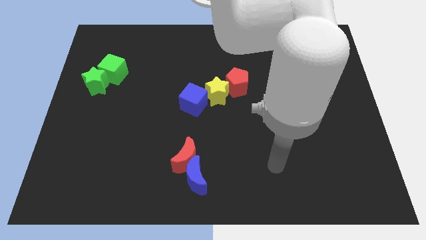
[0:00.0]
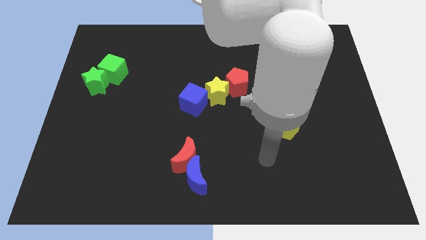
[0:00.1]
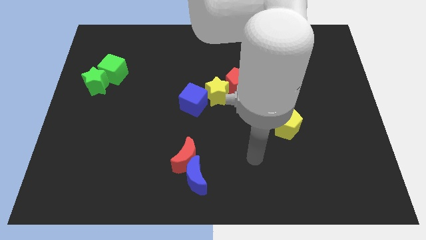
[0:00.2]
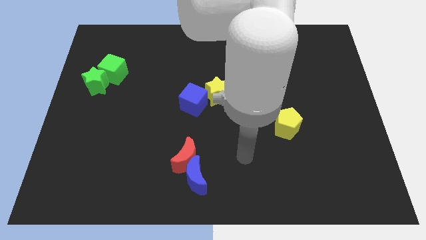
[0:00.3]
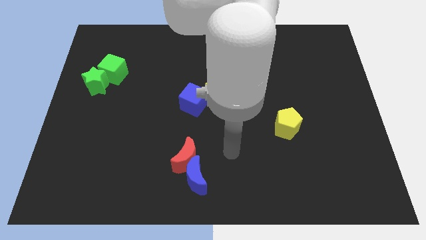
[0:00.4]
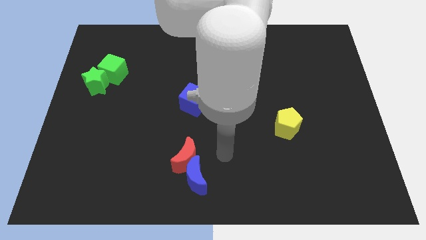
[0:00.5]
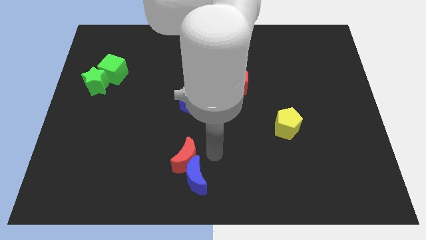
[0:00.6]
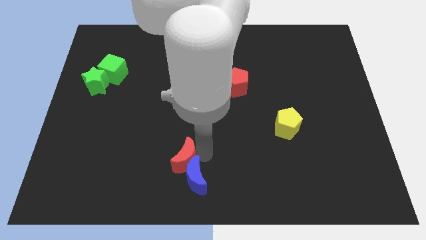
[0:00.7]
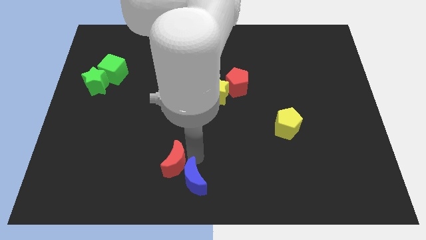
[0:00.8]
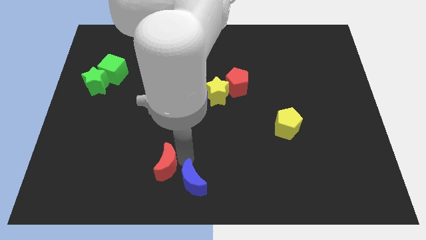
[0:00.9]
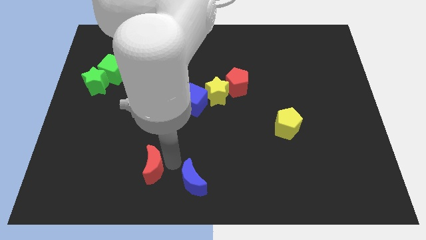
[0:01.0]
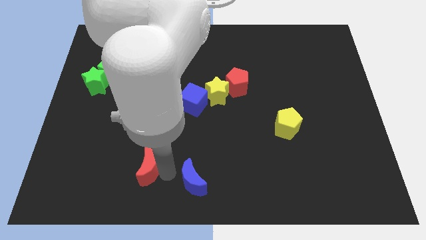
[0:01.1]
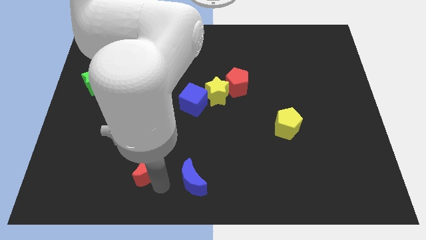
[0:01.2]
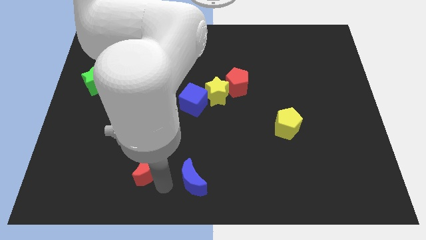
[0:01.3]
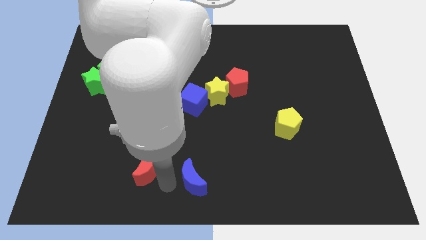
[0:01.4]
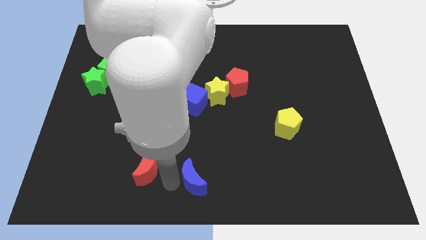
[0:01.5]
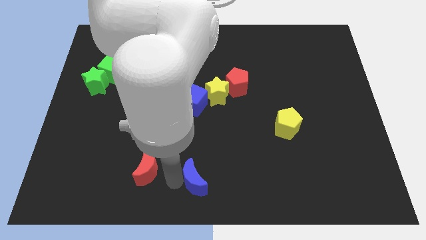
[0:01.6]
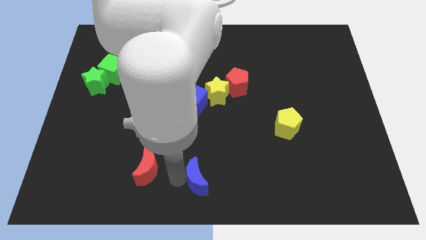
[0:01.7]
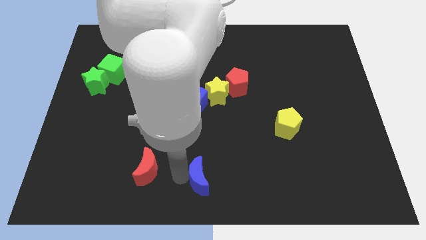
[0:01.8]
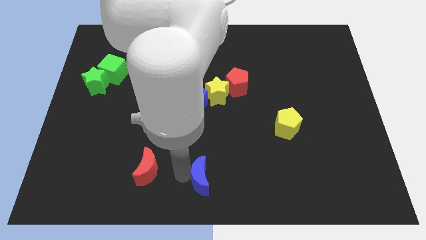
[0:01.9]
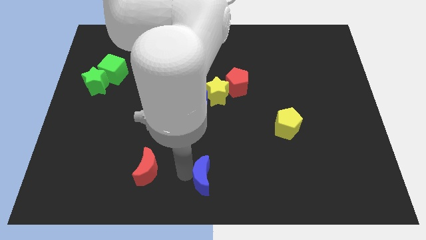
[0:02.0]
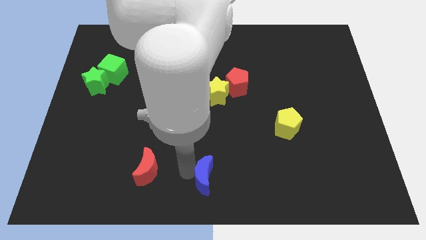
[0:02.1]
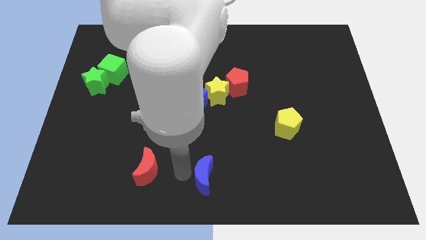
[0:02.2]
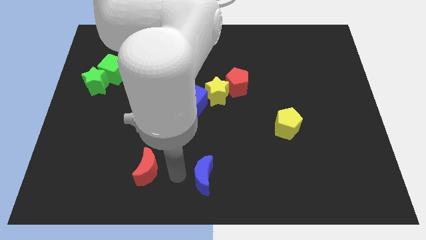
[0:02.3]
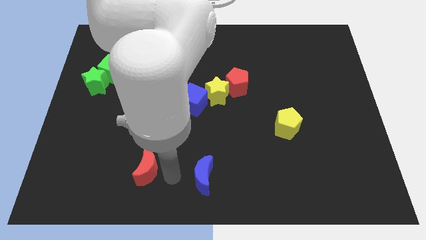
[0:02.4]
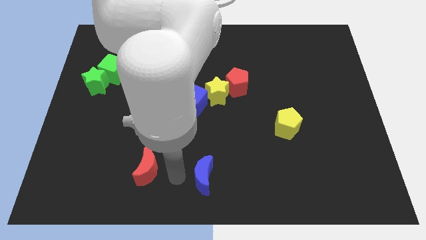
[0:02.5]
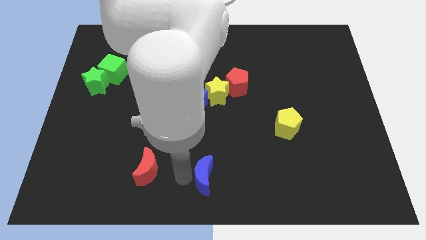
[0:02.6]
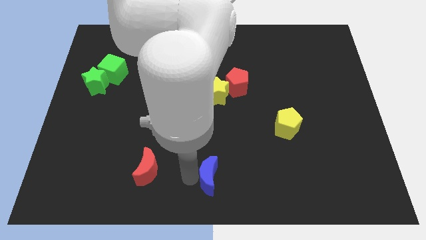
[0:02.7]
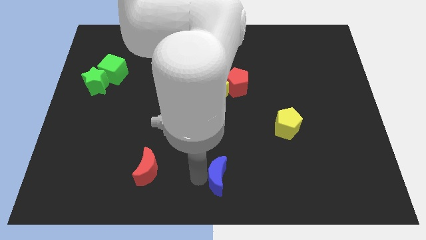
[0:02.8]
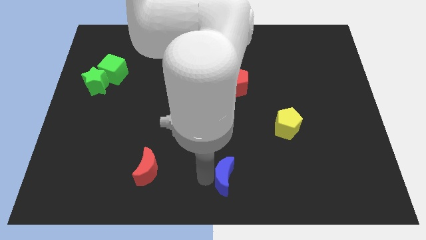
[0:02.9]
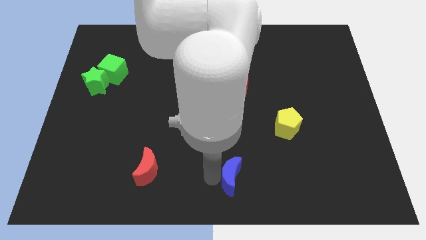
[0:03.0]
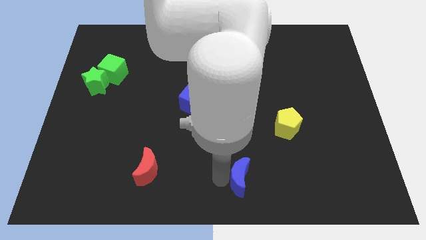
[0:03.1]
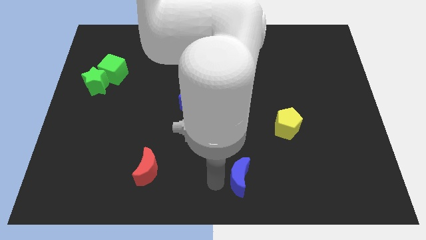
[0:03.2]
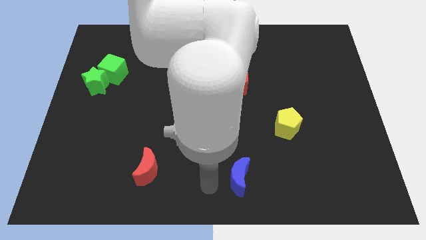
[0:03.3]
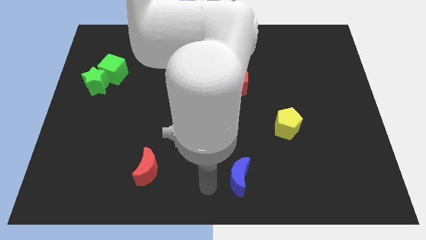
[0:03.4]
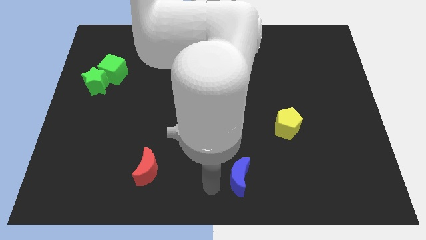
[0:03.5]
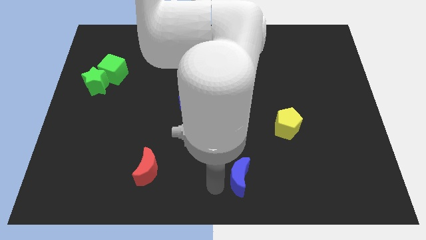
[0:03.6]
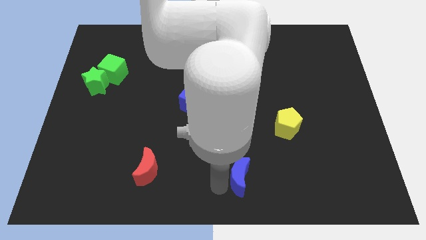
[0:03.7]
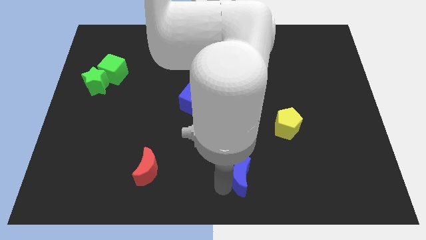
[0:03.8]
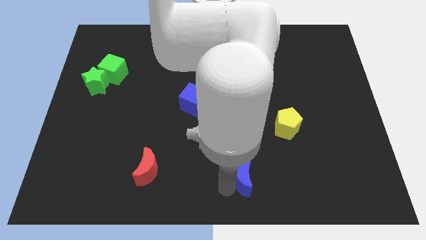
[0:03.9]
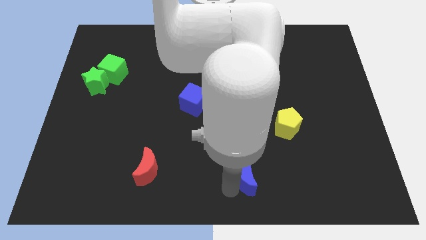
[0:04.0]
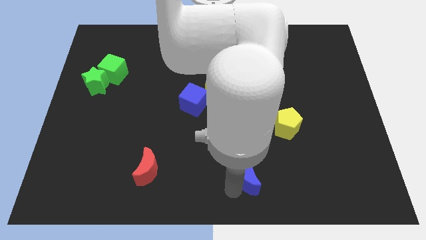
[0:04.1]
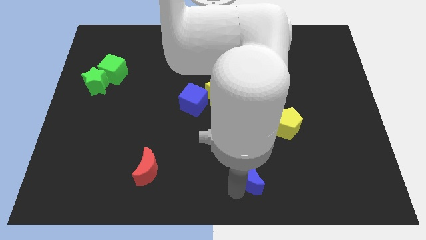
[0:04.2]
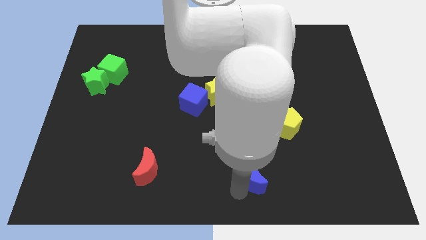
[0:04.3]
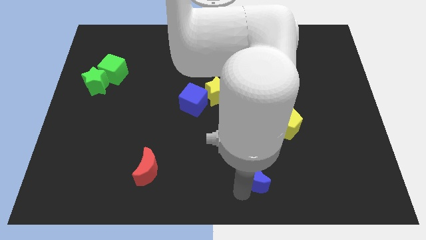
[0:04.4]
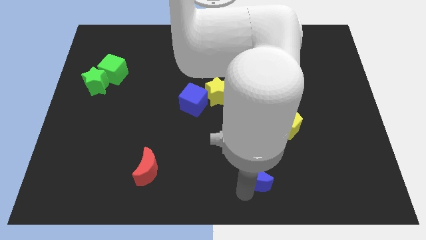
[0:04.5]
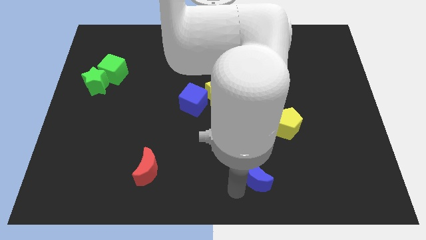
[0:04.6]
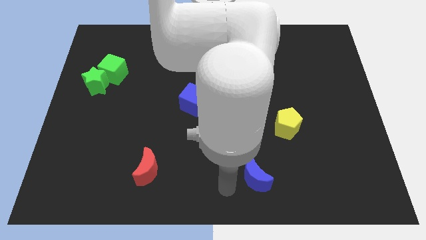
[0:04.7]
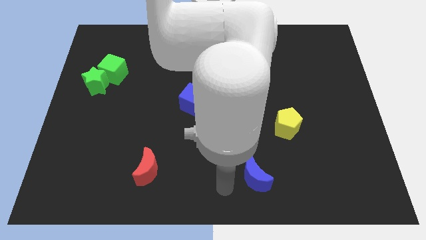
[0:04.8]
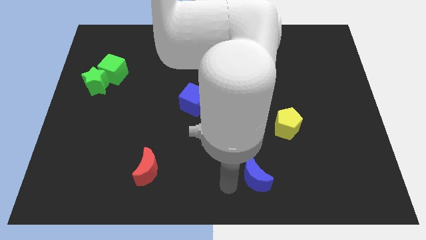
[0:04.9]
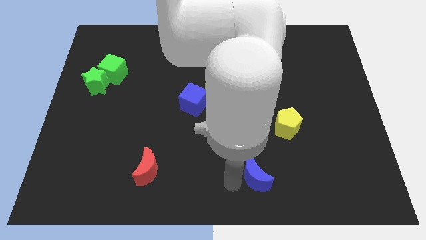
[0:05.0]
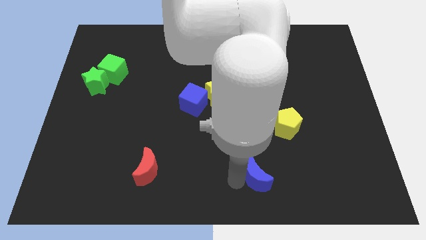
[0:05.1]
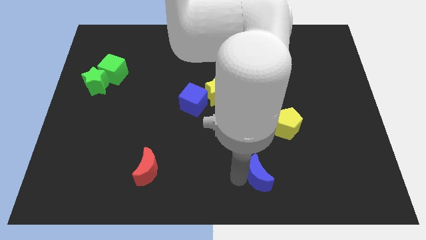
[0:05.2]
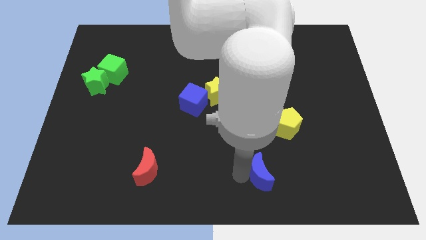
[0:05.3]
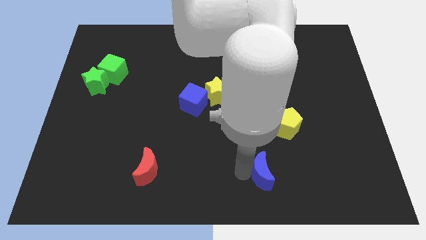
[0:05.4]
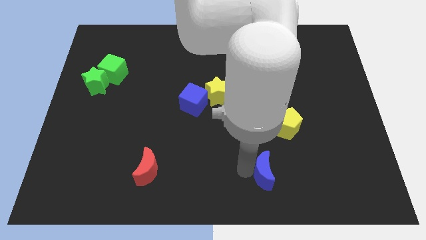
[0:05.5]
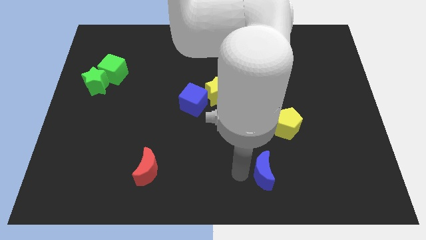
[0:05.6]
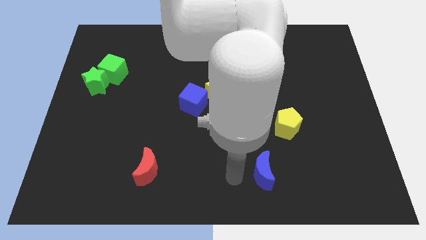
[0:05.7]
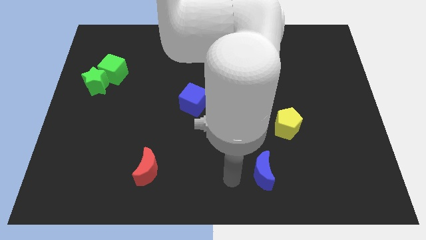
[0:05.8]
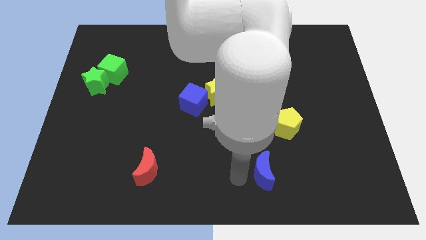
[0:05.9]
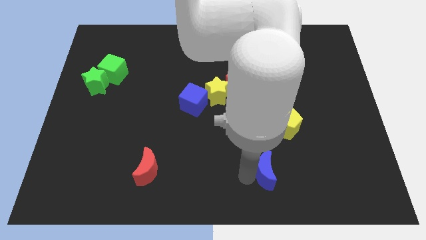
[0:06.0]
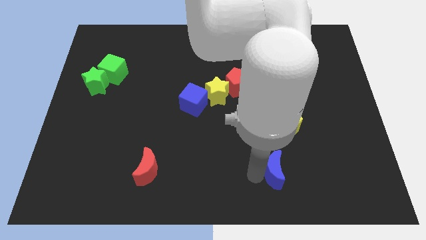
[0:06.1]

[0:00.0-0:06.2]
push the blue moon to the bottom side of the yellow pentagon

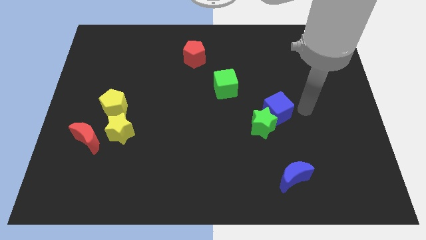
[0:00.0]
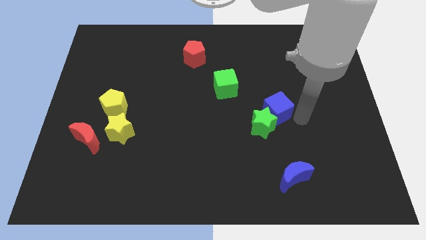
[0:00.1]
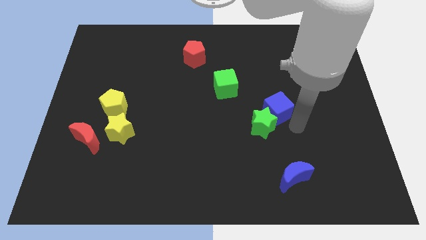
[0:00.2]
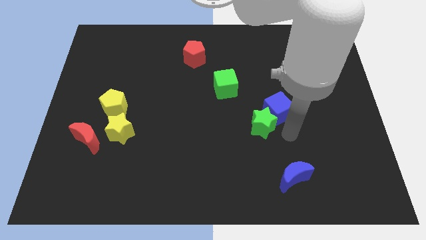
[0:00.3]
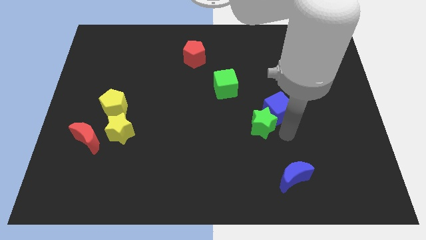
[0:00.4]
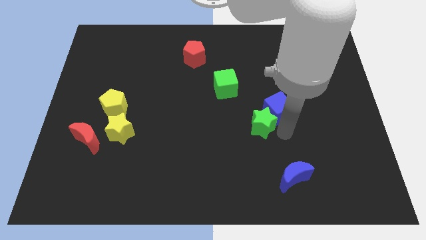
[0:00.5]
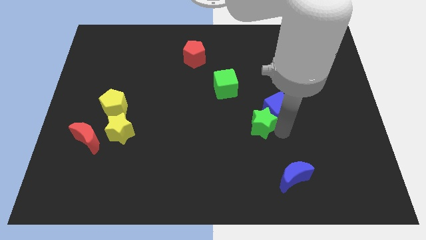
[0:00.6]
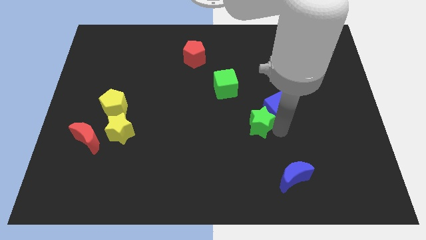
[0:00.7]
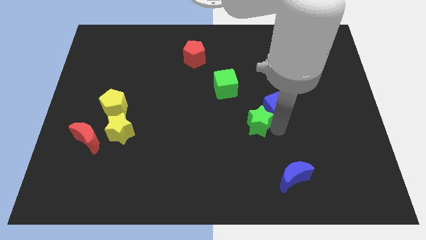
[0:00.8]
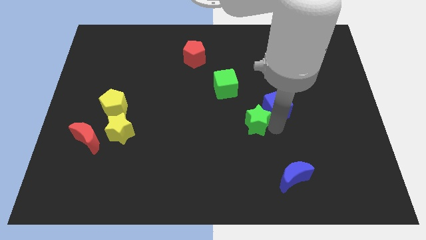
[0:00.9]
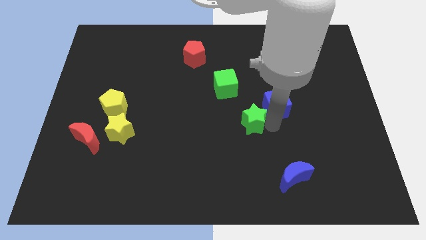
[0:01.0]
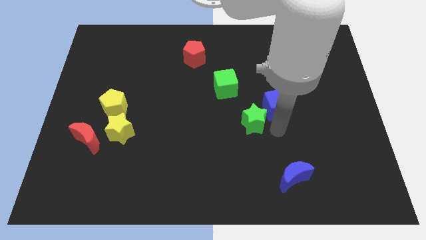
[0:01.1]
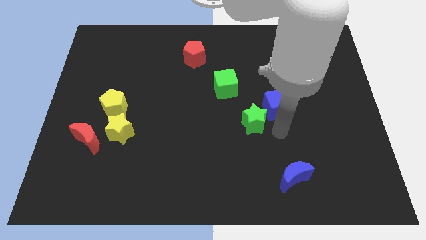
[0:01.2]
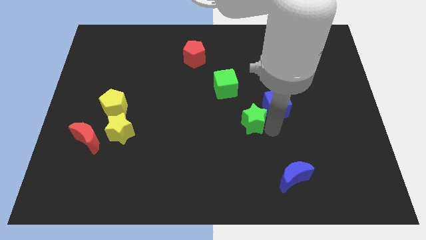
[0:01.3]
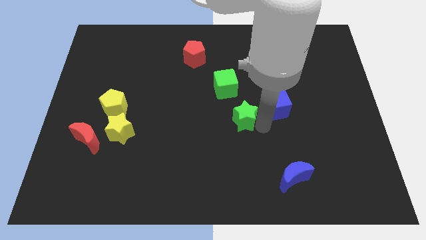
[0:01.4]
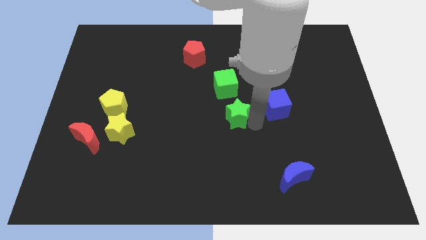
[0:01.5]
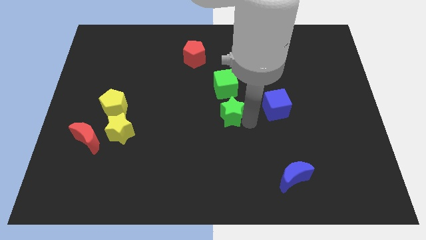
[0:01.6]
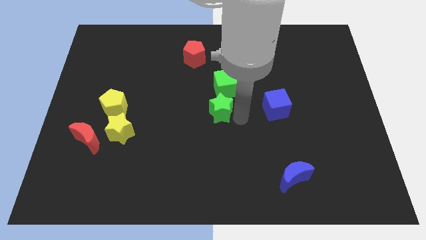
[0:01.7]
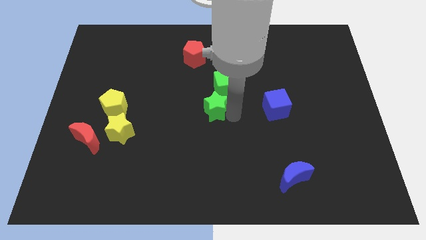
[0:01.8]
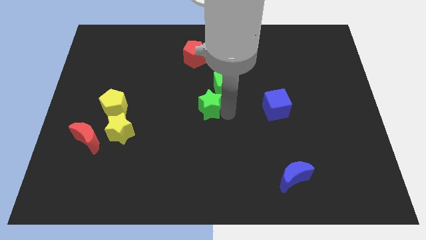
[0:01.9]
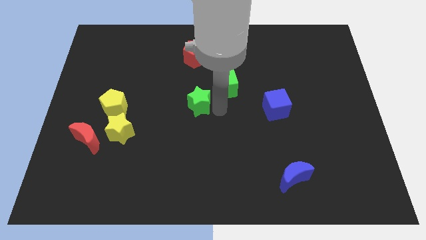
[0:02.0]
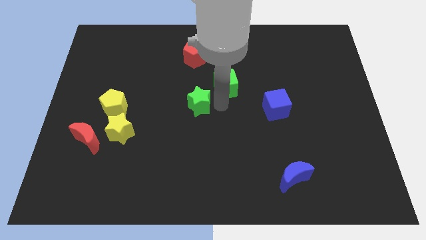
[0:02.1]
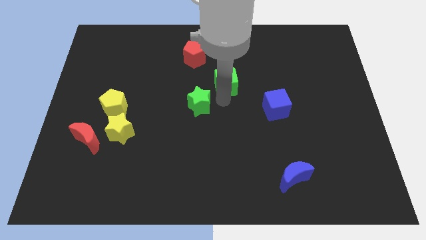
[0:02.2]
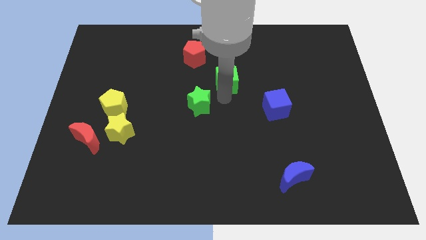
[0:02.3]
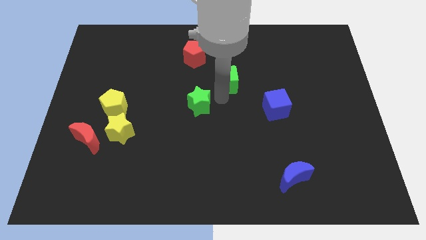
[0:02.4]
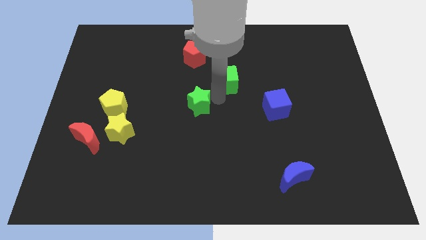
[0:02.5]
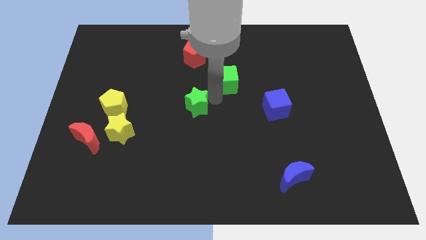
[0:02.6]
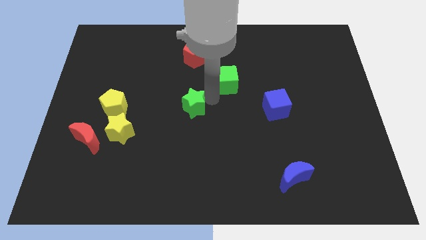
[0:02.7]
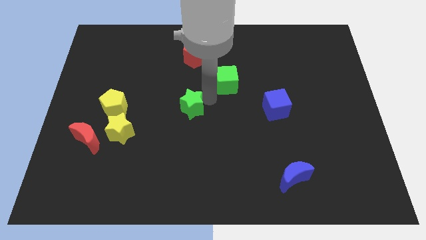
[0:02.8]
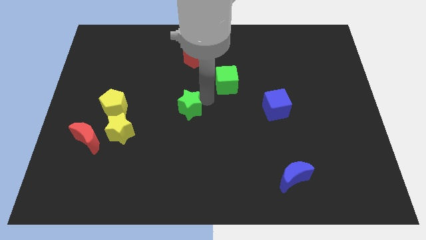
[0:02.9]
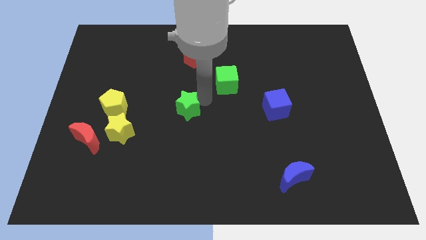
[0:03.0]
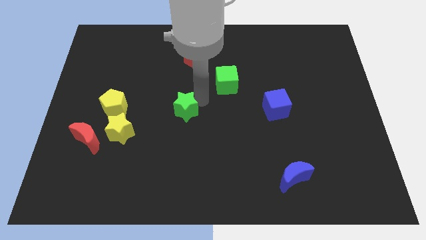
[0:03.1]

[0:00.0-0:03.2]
push the green star to the right side of the yellow pentagon
